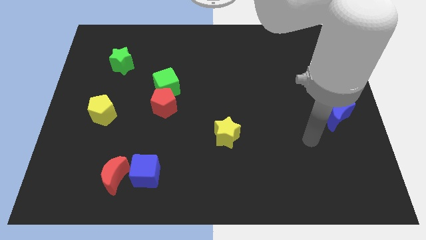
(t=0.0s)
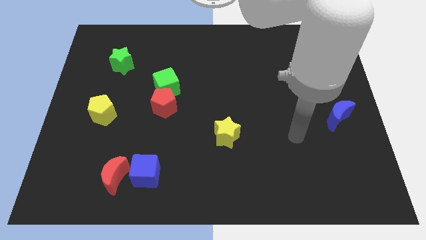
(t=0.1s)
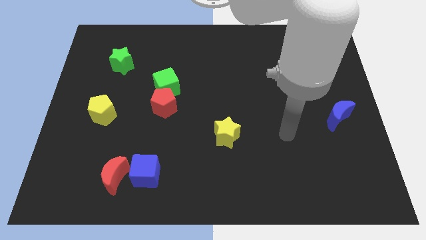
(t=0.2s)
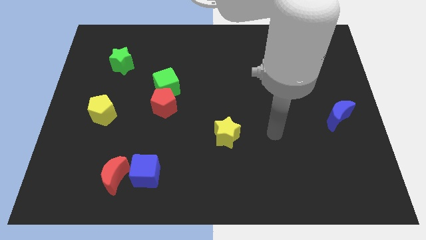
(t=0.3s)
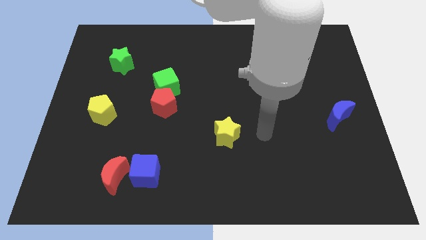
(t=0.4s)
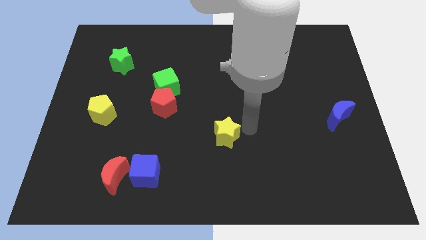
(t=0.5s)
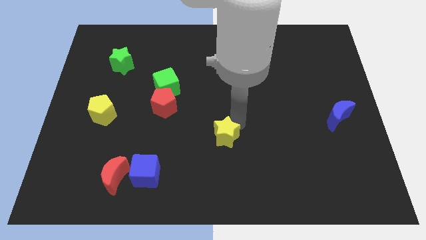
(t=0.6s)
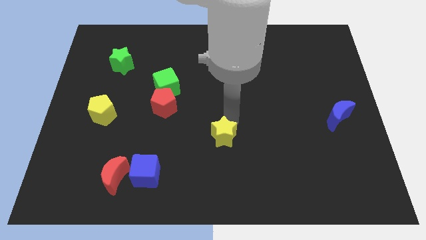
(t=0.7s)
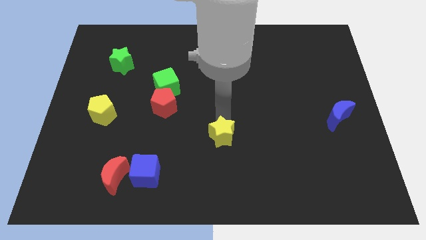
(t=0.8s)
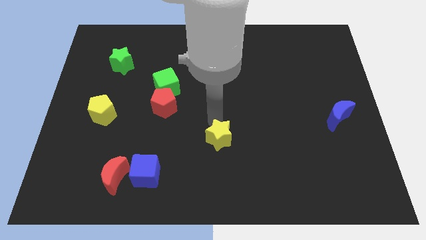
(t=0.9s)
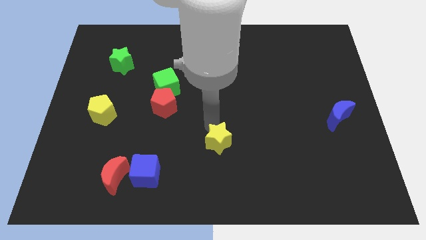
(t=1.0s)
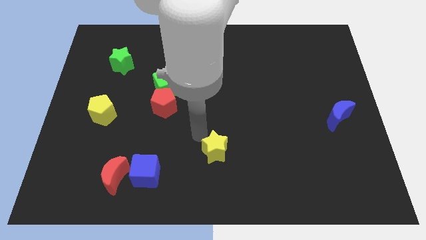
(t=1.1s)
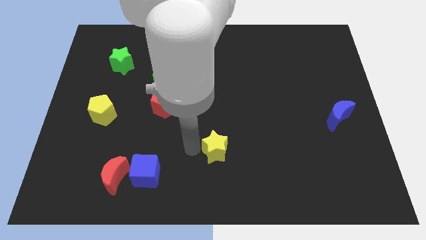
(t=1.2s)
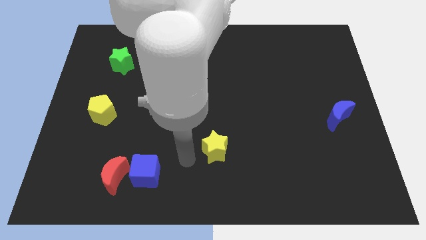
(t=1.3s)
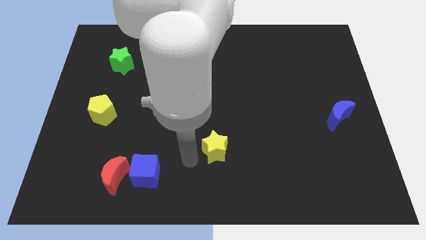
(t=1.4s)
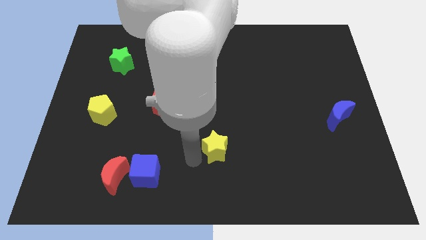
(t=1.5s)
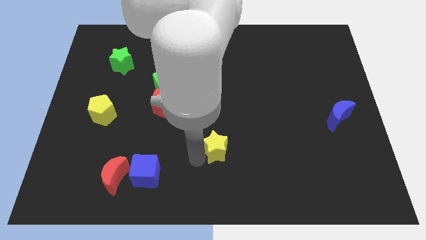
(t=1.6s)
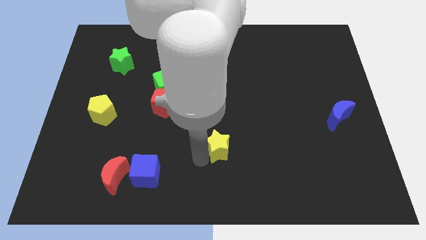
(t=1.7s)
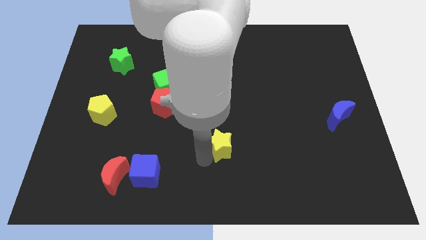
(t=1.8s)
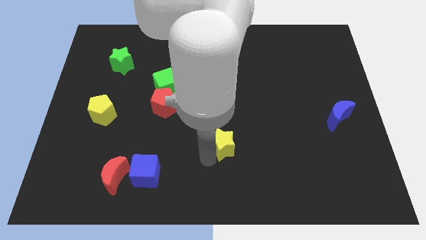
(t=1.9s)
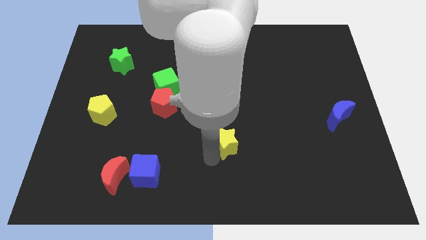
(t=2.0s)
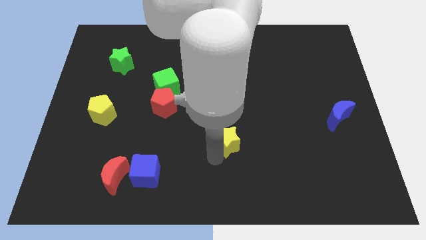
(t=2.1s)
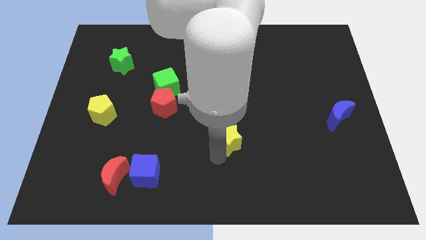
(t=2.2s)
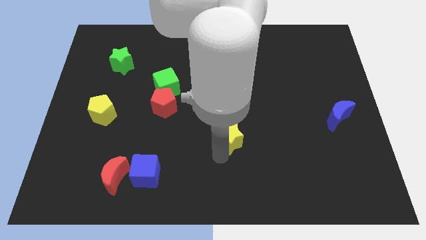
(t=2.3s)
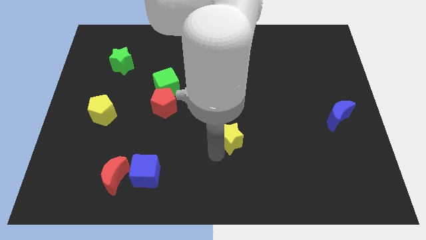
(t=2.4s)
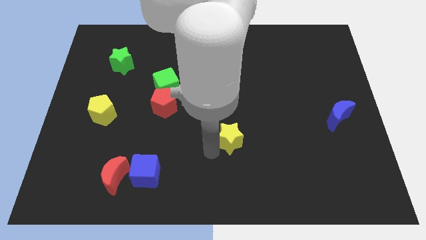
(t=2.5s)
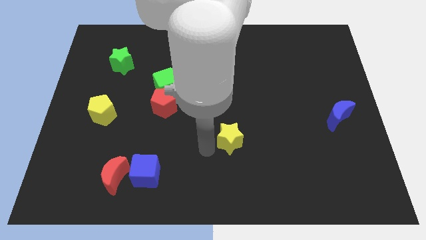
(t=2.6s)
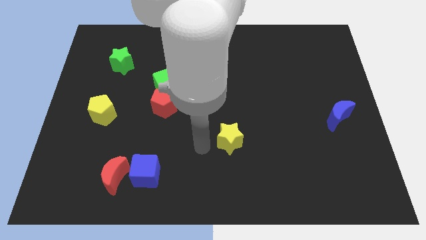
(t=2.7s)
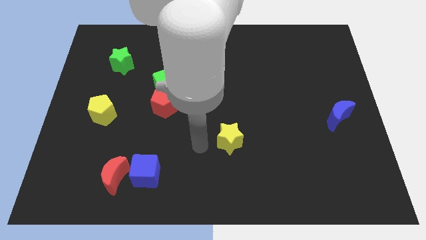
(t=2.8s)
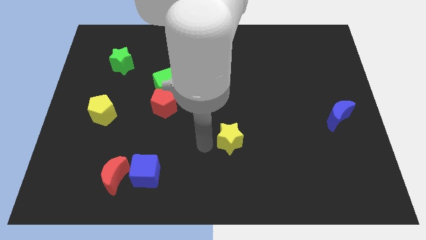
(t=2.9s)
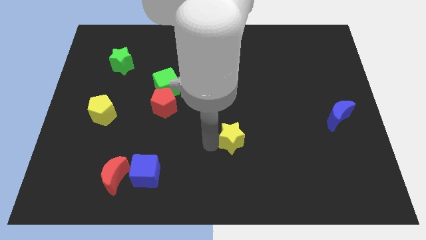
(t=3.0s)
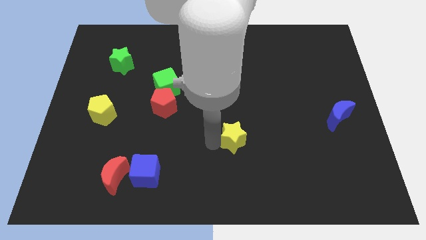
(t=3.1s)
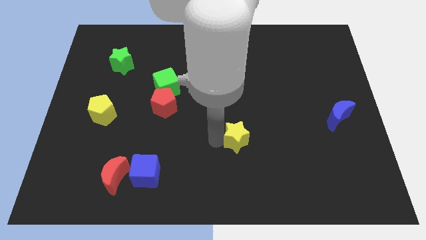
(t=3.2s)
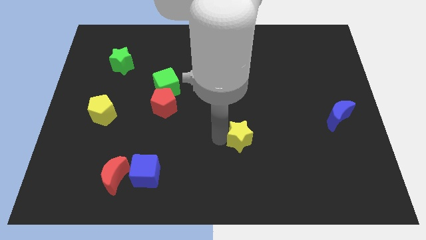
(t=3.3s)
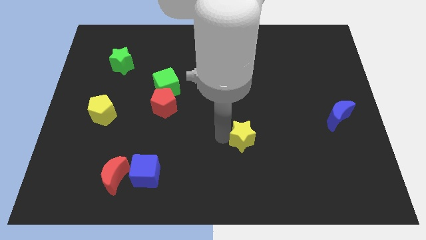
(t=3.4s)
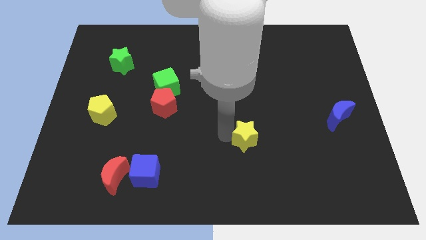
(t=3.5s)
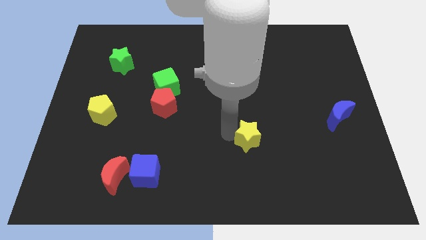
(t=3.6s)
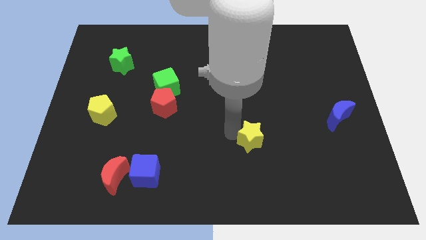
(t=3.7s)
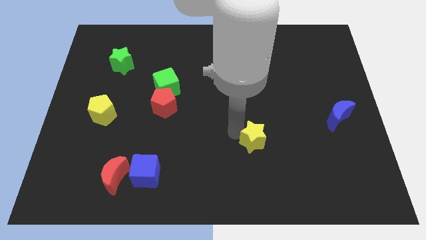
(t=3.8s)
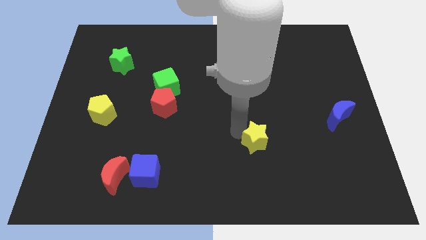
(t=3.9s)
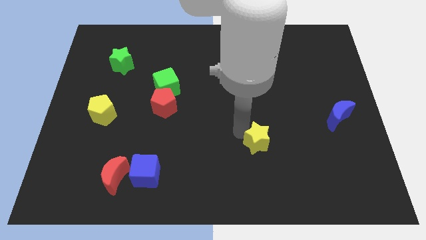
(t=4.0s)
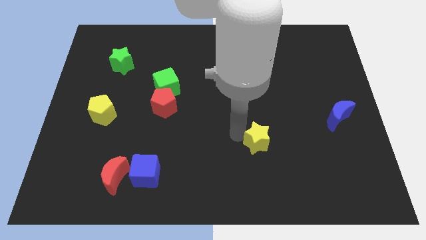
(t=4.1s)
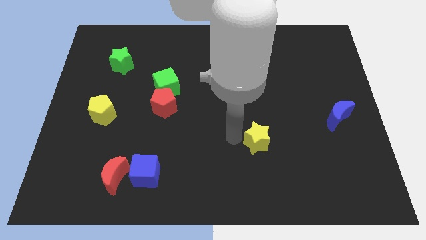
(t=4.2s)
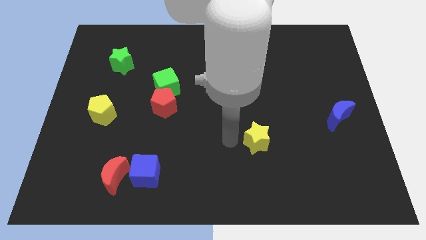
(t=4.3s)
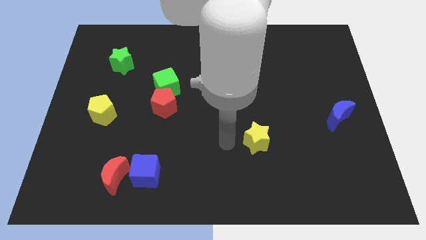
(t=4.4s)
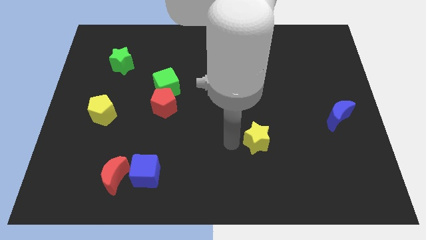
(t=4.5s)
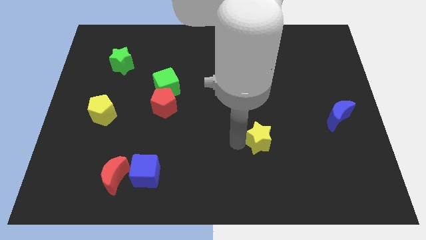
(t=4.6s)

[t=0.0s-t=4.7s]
slide the yellow star a bit to the right

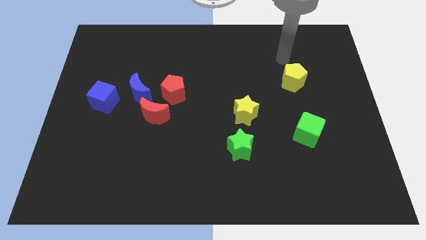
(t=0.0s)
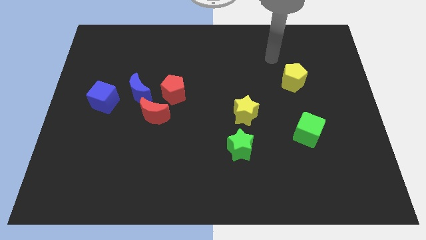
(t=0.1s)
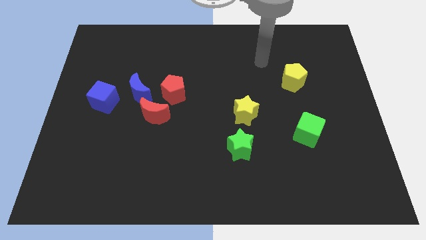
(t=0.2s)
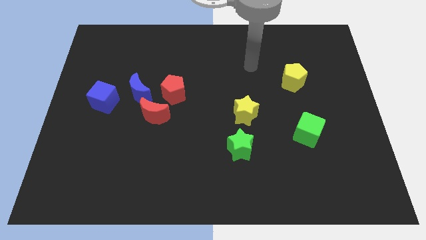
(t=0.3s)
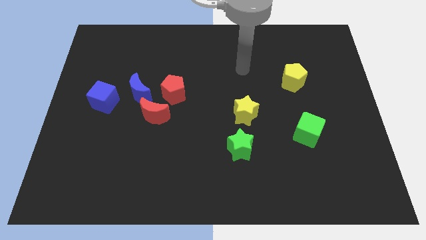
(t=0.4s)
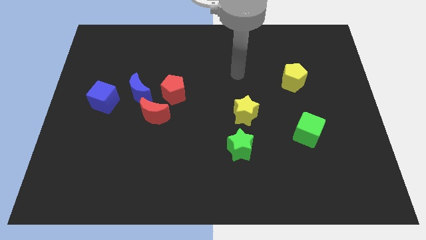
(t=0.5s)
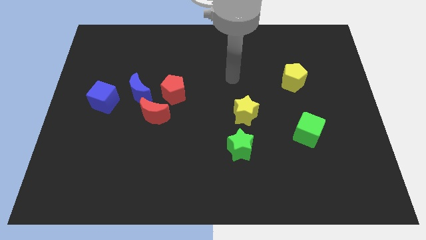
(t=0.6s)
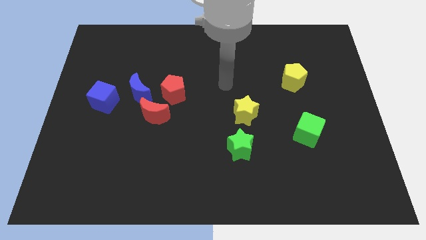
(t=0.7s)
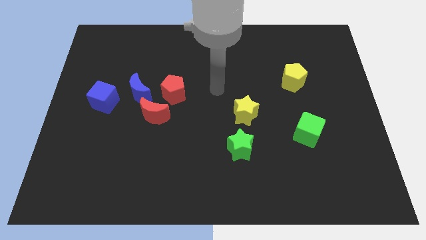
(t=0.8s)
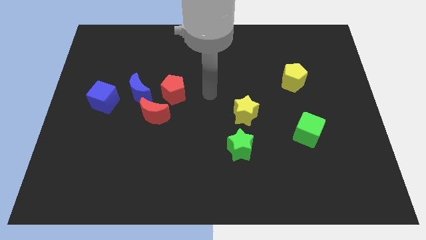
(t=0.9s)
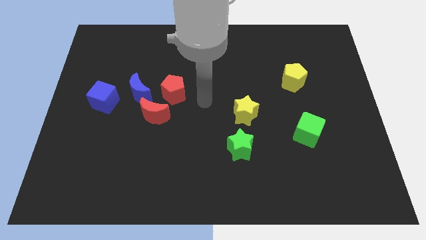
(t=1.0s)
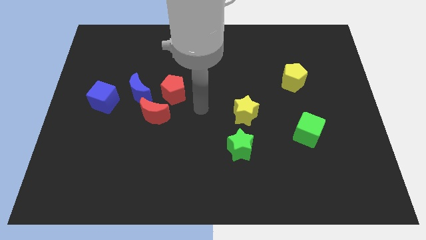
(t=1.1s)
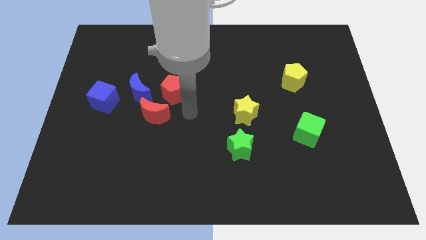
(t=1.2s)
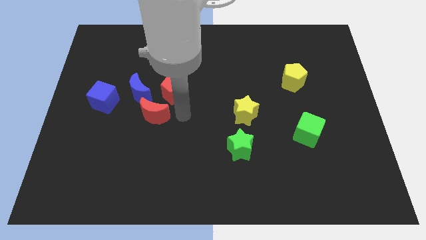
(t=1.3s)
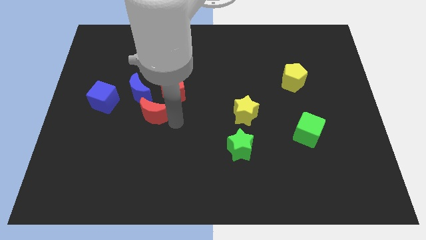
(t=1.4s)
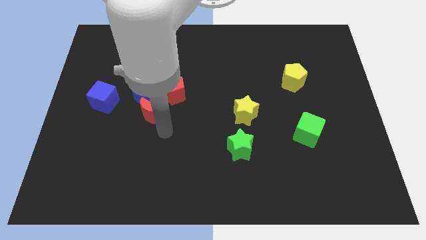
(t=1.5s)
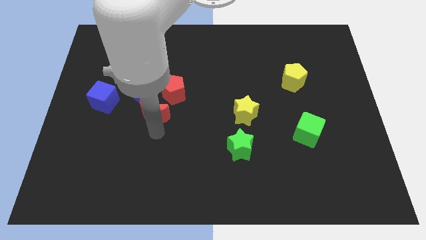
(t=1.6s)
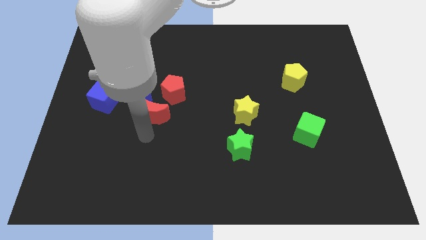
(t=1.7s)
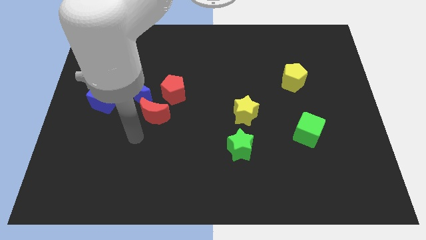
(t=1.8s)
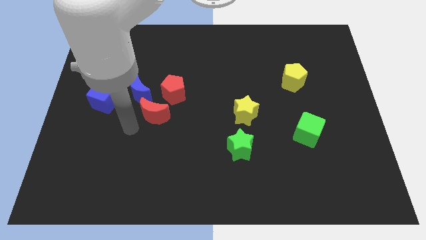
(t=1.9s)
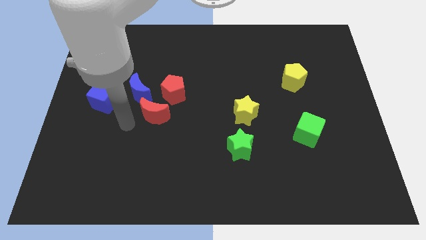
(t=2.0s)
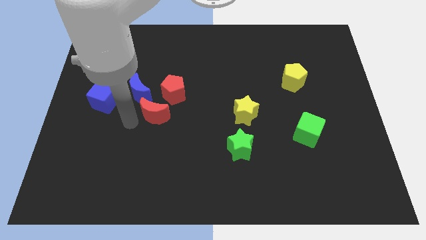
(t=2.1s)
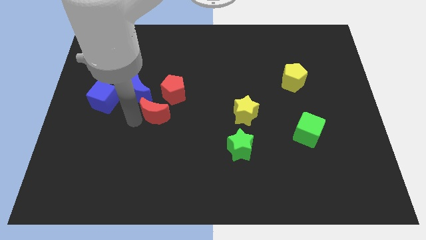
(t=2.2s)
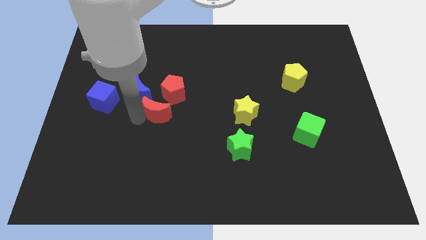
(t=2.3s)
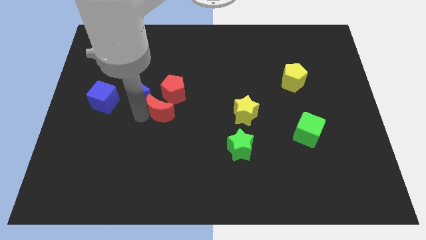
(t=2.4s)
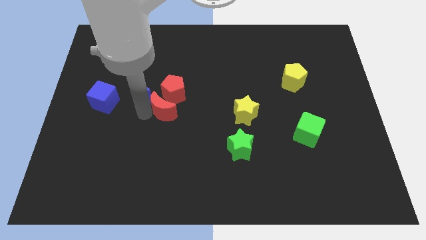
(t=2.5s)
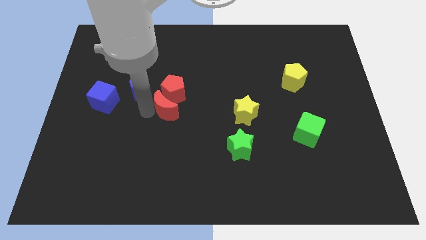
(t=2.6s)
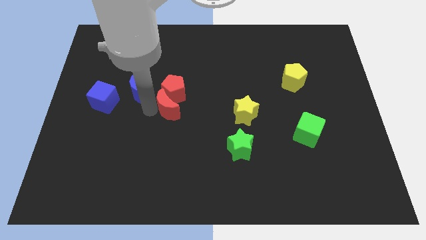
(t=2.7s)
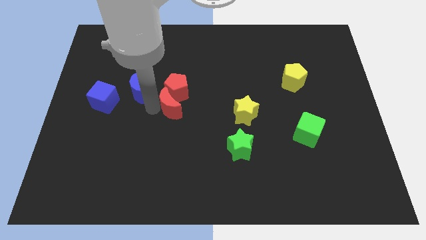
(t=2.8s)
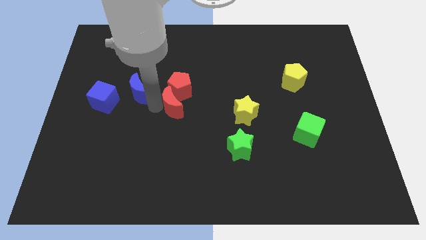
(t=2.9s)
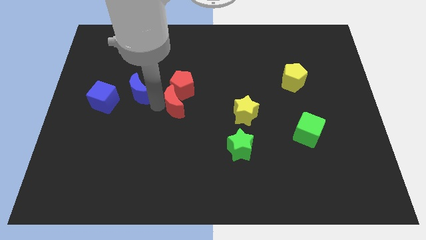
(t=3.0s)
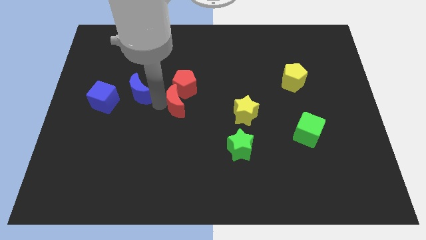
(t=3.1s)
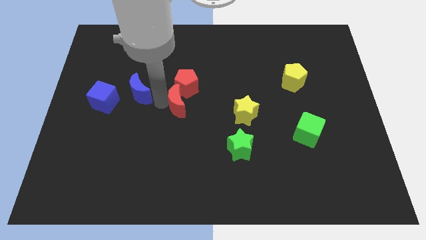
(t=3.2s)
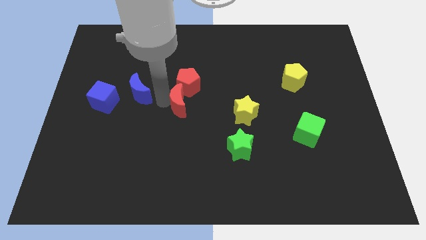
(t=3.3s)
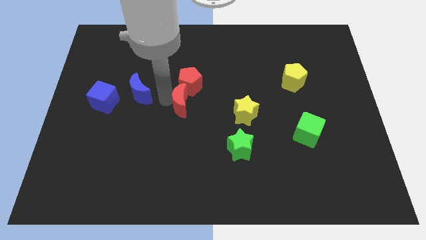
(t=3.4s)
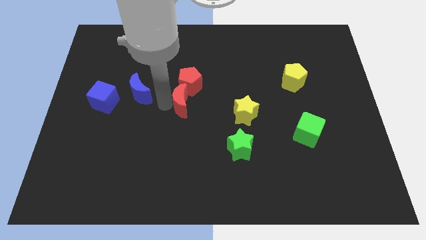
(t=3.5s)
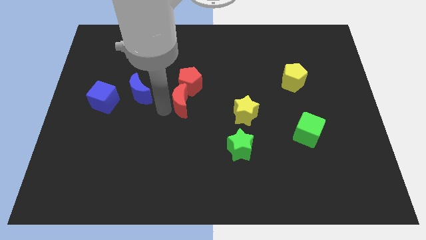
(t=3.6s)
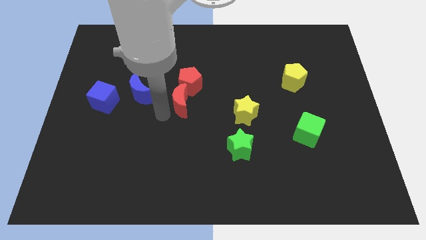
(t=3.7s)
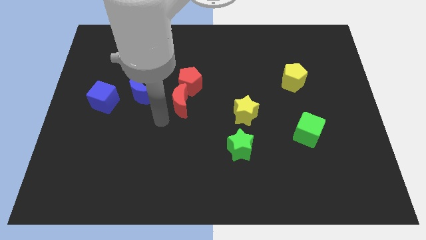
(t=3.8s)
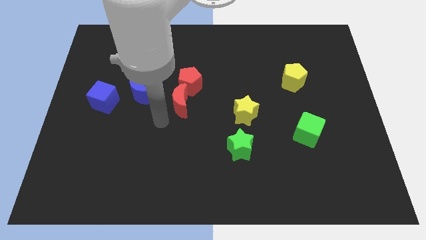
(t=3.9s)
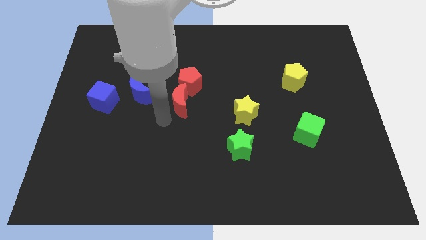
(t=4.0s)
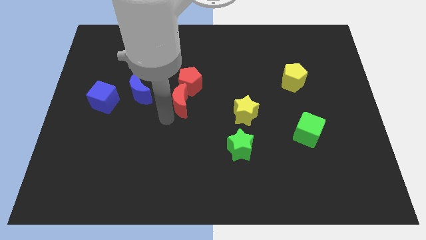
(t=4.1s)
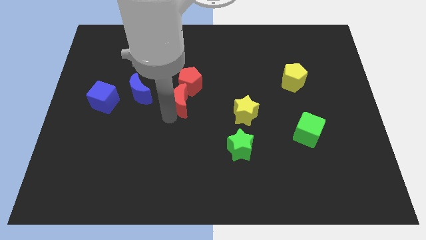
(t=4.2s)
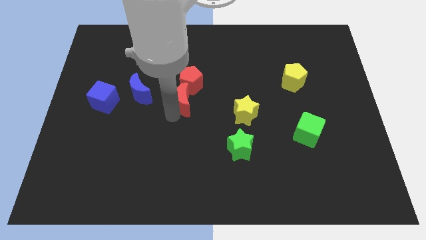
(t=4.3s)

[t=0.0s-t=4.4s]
slide the red moon up and to the right a bit
